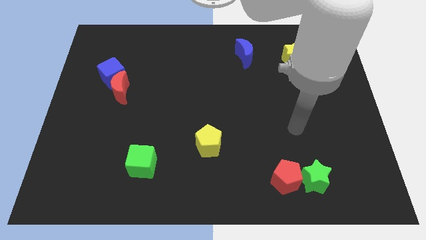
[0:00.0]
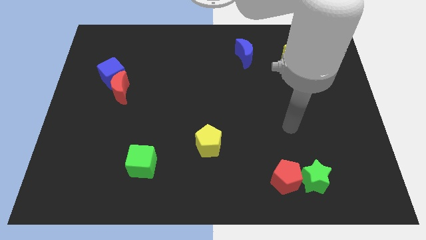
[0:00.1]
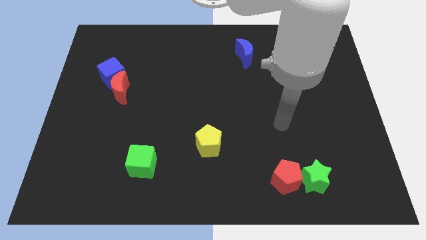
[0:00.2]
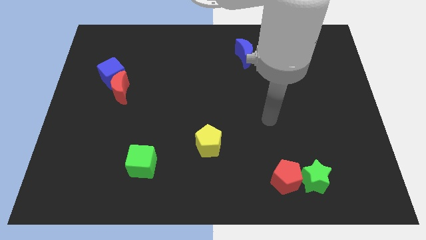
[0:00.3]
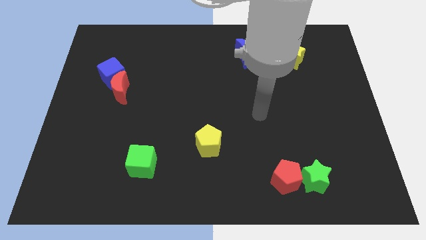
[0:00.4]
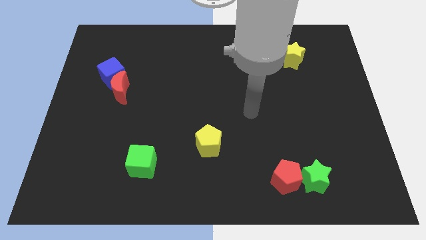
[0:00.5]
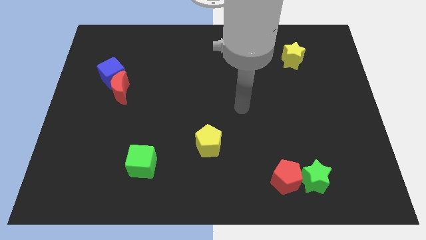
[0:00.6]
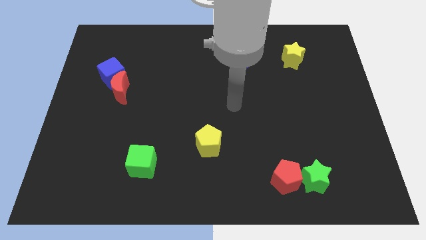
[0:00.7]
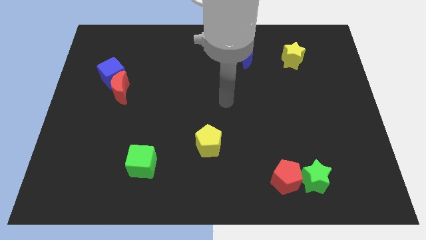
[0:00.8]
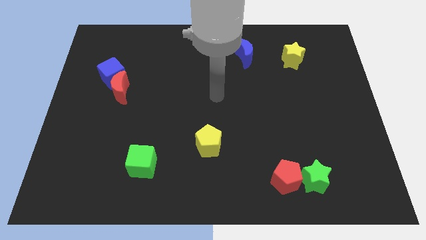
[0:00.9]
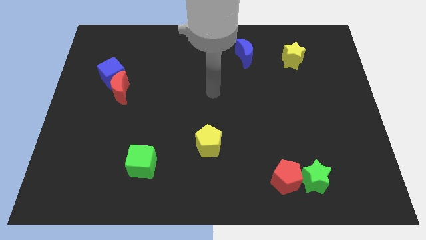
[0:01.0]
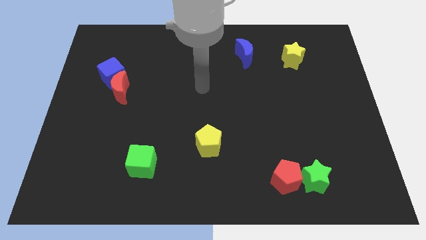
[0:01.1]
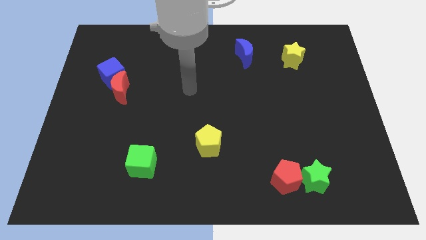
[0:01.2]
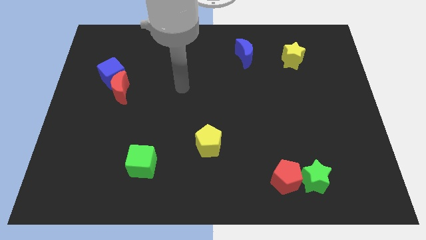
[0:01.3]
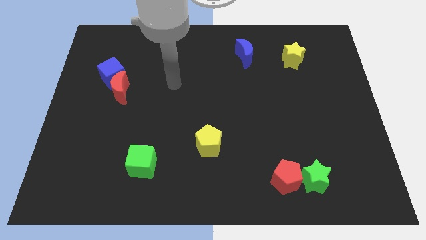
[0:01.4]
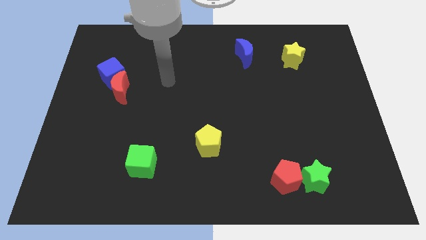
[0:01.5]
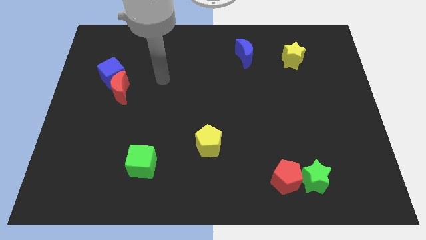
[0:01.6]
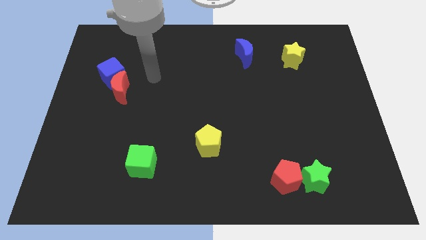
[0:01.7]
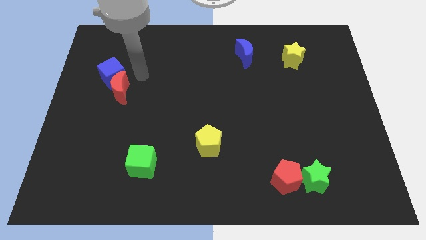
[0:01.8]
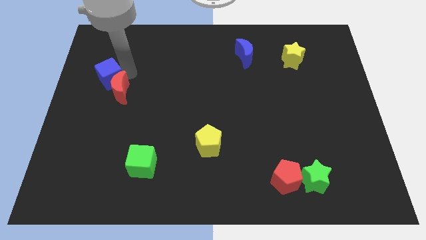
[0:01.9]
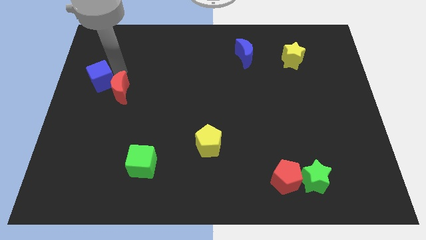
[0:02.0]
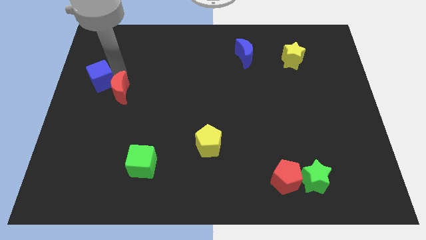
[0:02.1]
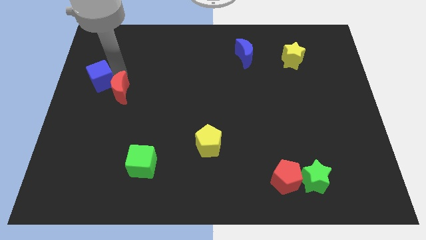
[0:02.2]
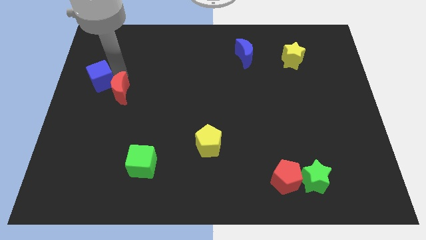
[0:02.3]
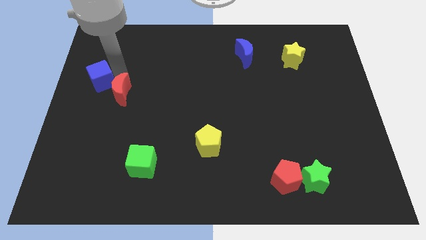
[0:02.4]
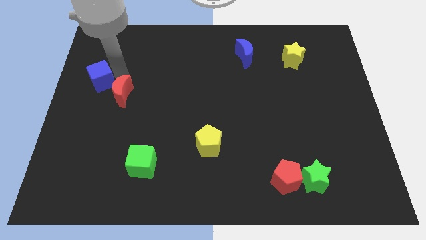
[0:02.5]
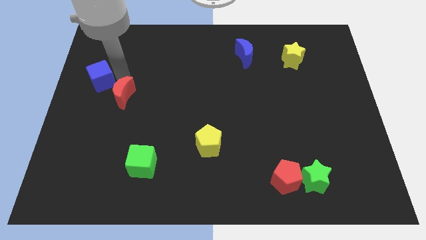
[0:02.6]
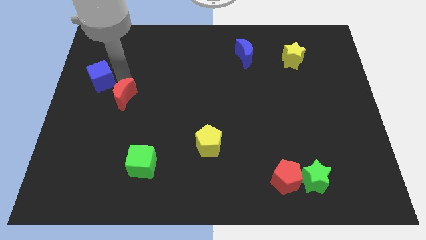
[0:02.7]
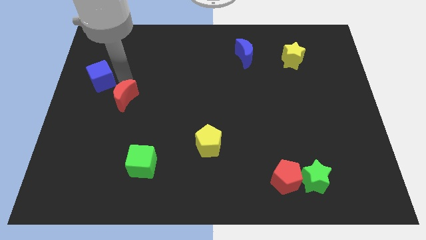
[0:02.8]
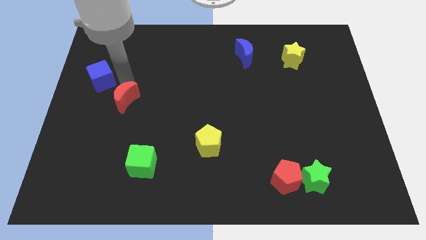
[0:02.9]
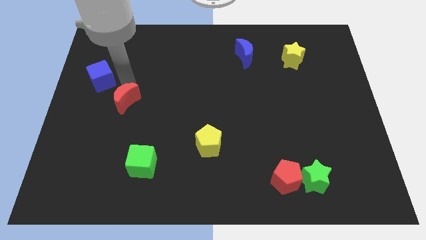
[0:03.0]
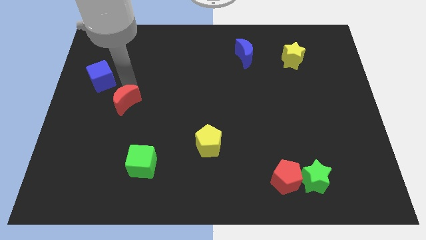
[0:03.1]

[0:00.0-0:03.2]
move the red moon away from the blue cube

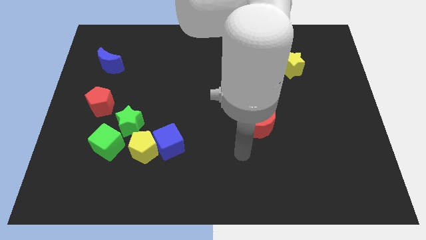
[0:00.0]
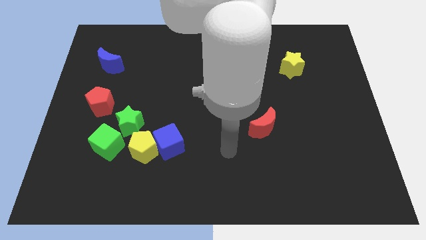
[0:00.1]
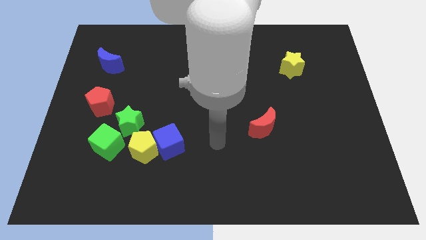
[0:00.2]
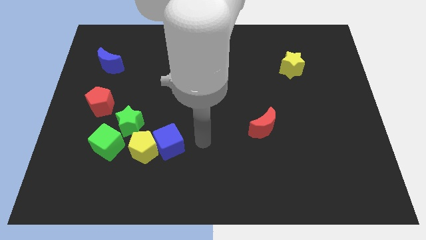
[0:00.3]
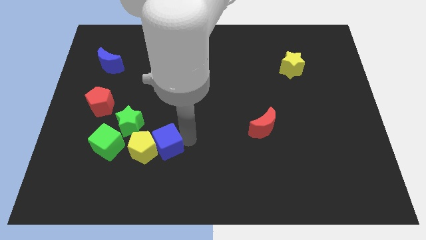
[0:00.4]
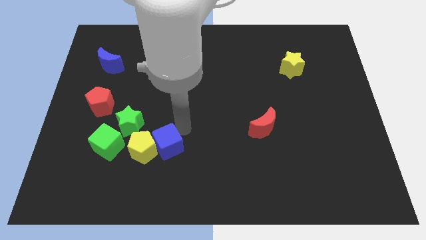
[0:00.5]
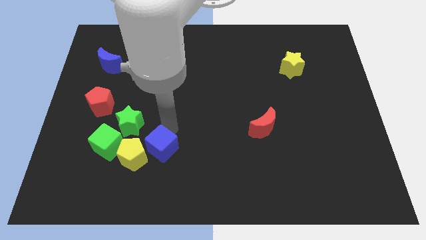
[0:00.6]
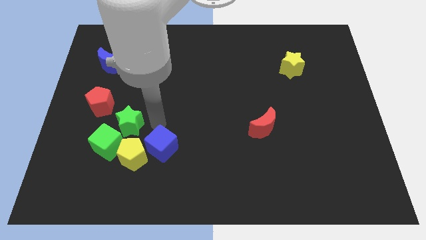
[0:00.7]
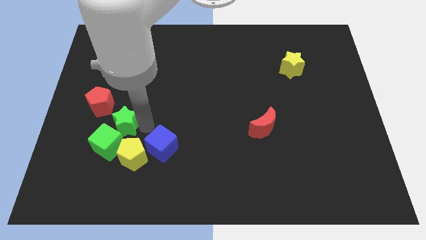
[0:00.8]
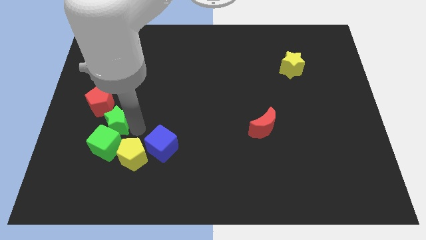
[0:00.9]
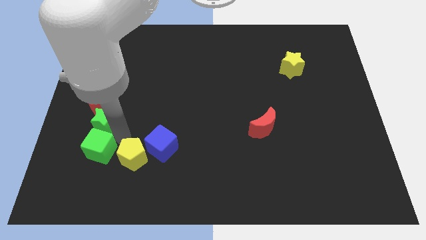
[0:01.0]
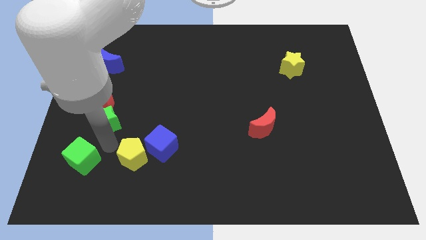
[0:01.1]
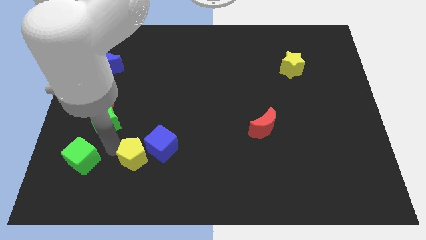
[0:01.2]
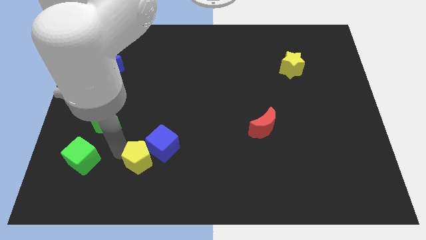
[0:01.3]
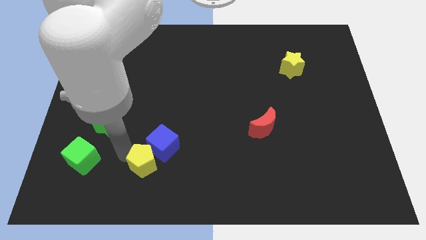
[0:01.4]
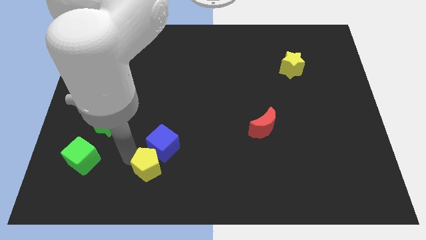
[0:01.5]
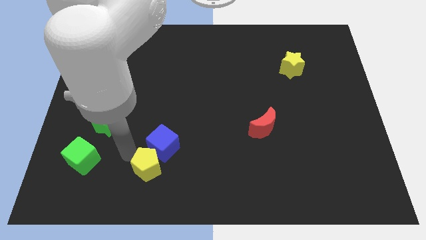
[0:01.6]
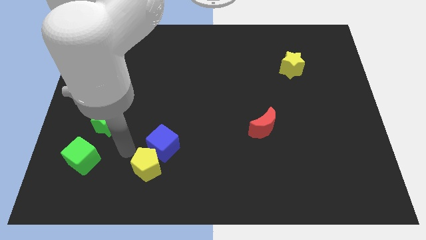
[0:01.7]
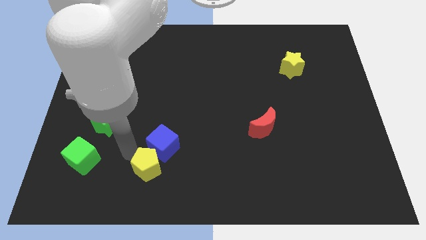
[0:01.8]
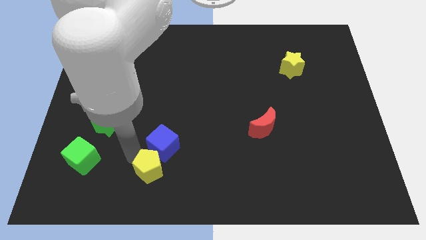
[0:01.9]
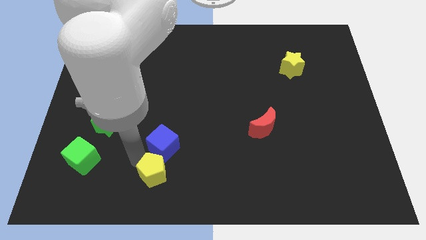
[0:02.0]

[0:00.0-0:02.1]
separate the yellow pentagon from the blue cube, green star, and green cube

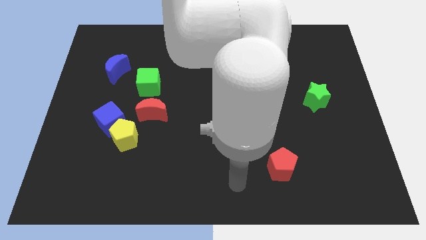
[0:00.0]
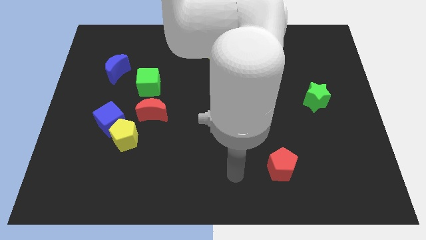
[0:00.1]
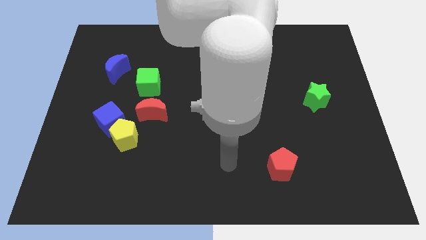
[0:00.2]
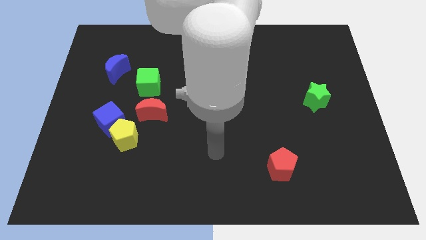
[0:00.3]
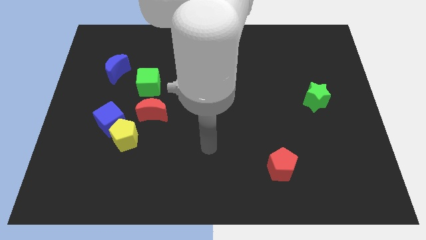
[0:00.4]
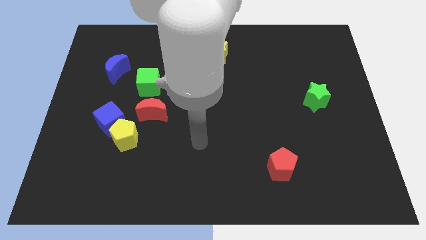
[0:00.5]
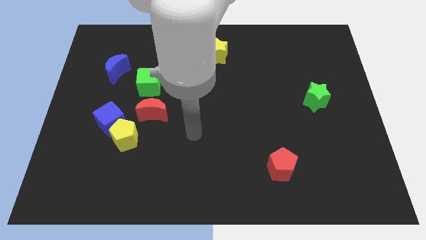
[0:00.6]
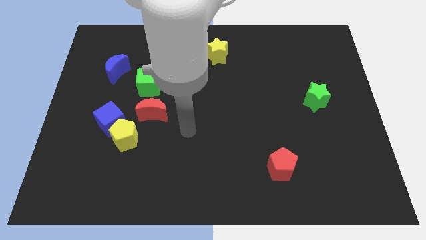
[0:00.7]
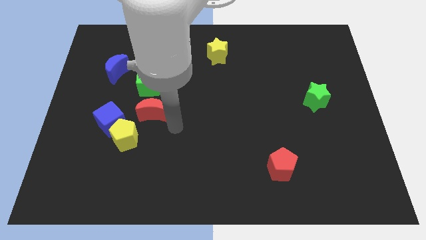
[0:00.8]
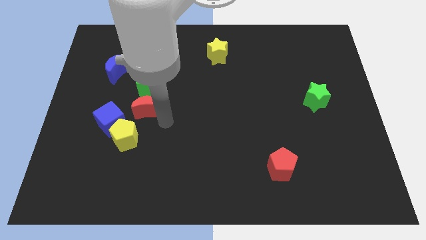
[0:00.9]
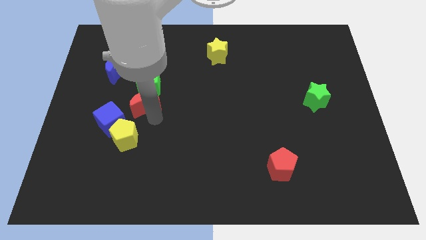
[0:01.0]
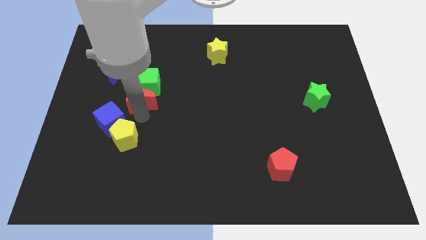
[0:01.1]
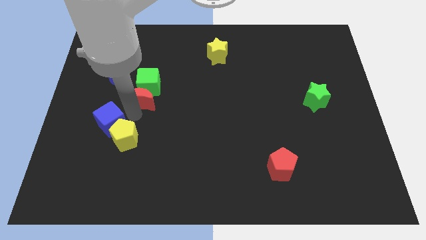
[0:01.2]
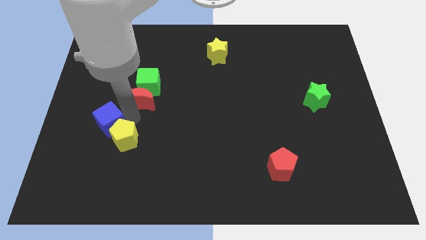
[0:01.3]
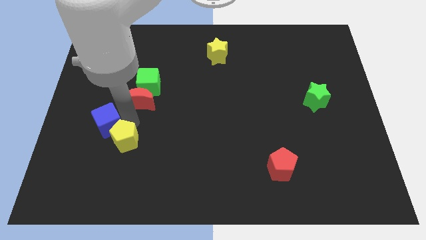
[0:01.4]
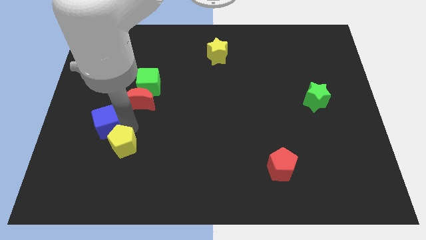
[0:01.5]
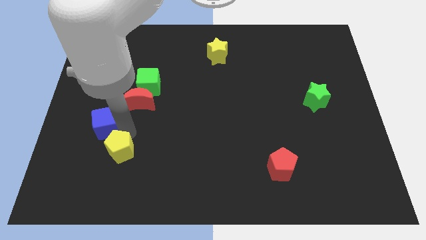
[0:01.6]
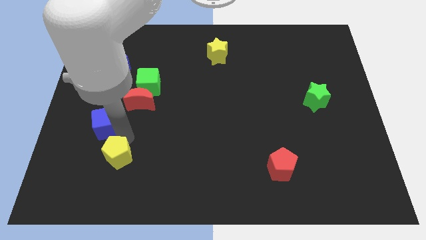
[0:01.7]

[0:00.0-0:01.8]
move the yellow pentagon away from the blue cube and red moon

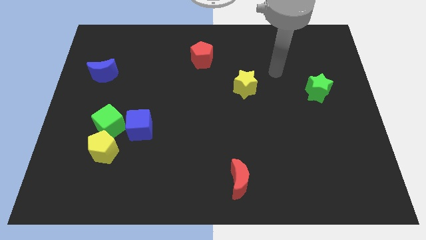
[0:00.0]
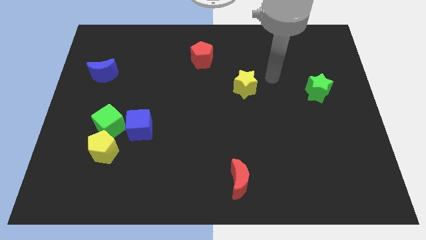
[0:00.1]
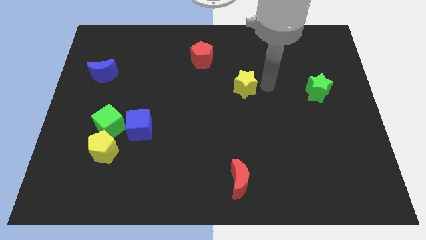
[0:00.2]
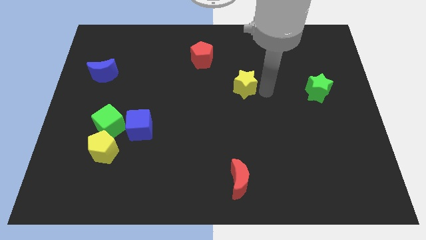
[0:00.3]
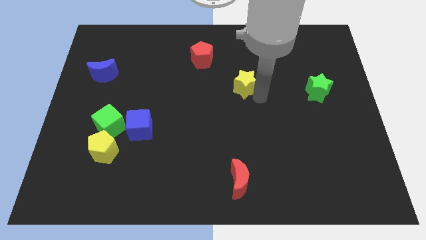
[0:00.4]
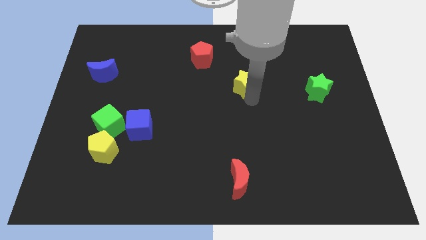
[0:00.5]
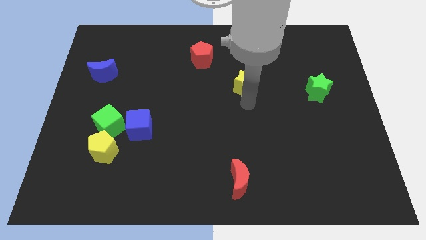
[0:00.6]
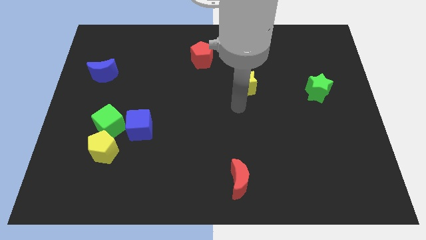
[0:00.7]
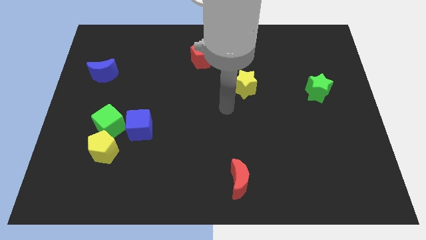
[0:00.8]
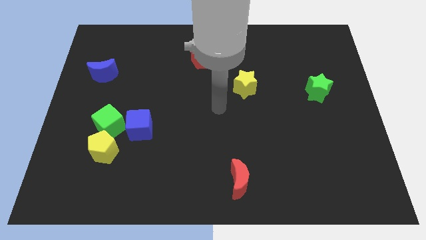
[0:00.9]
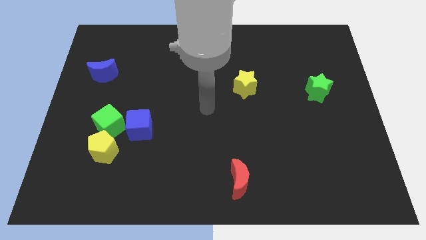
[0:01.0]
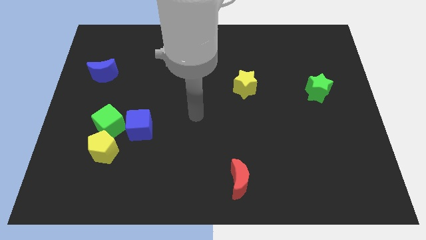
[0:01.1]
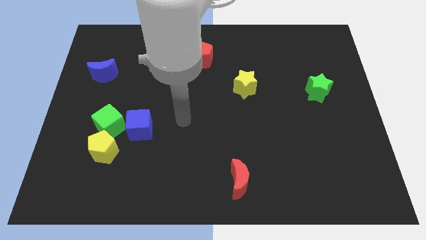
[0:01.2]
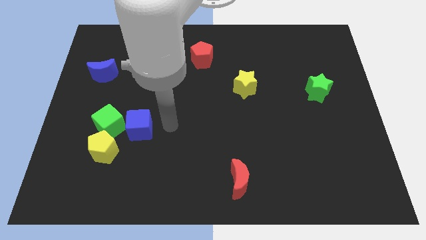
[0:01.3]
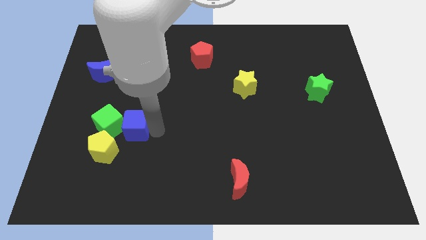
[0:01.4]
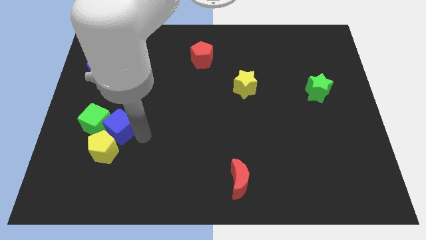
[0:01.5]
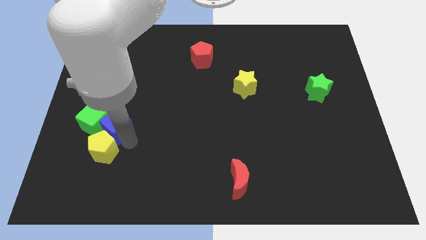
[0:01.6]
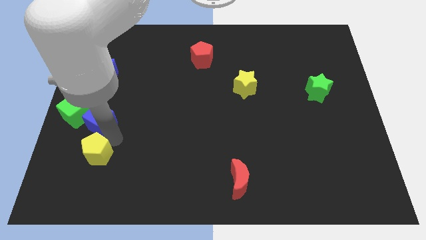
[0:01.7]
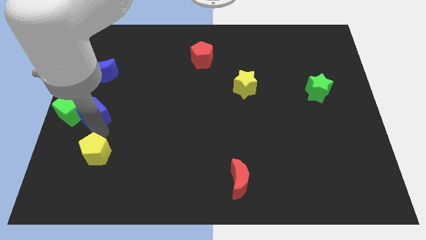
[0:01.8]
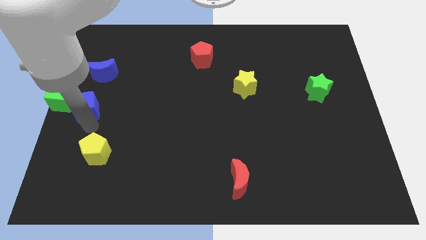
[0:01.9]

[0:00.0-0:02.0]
pull the green cube apart from the yellow pentagon and blue cube

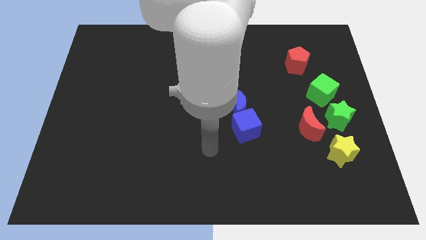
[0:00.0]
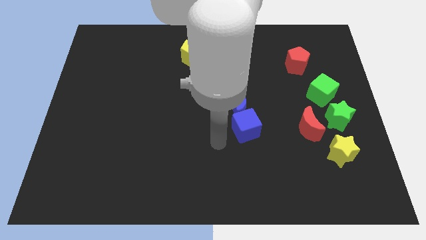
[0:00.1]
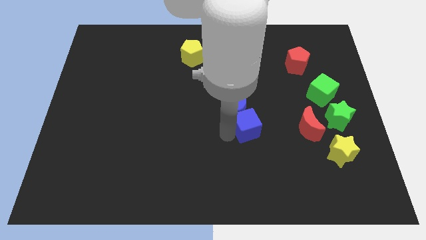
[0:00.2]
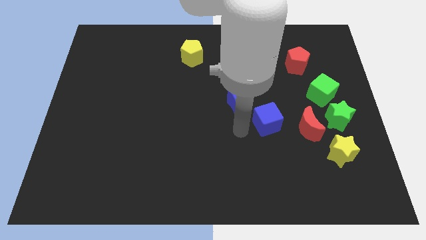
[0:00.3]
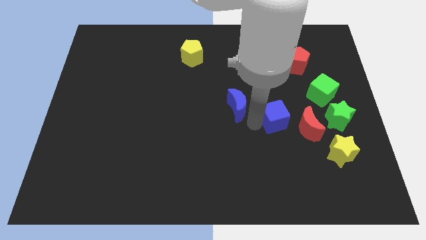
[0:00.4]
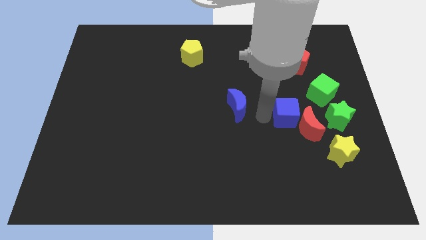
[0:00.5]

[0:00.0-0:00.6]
separate the blue moon from the blue cube
